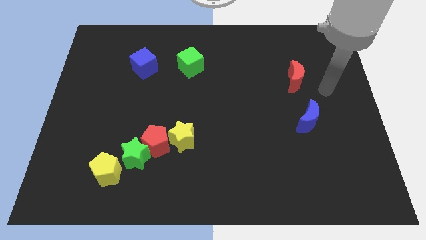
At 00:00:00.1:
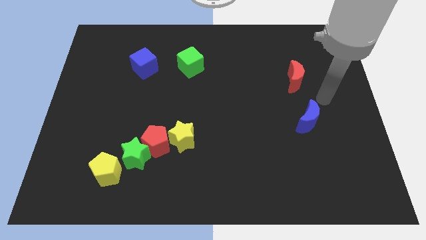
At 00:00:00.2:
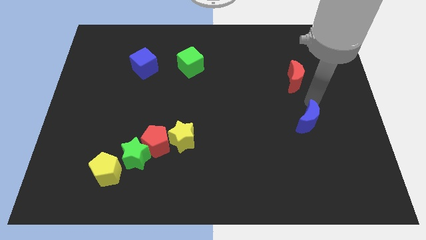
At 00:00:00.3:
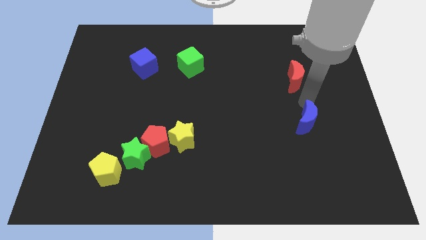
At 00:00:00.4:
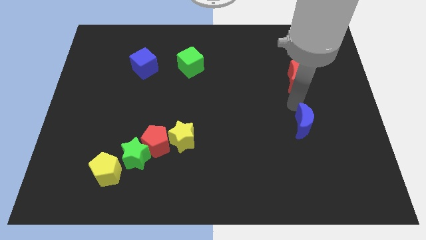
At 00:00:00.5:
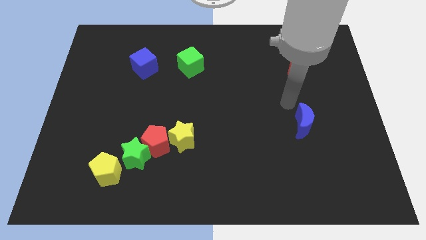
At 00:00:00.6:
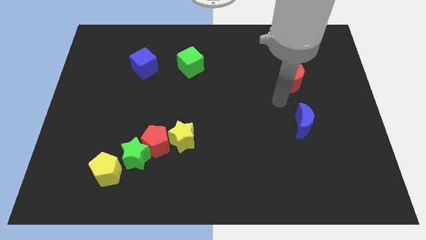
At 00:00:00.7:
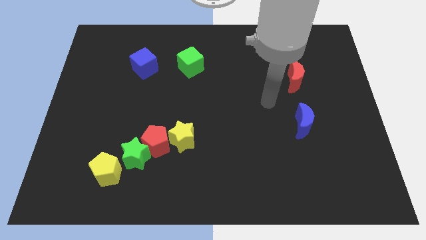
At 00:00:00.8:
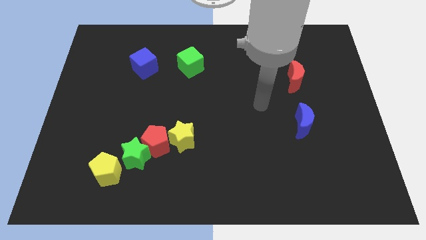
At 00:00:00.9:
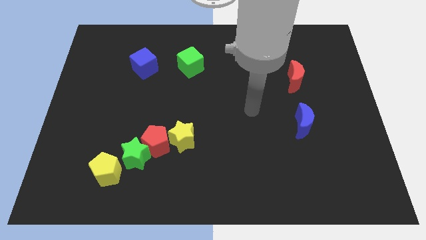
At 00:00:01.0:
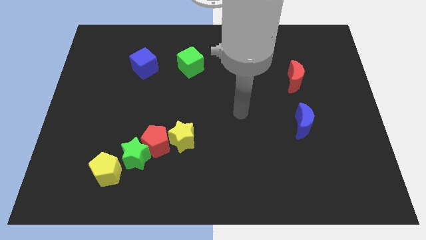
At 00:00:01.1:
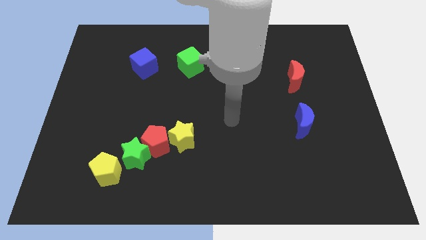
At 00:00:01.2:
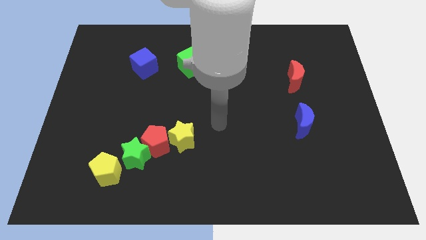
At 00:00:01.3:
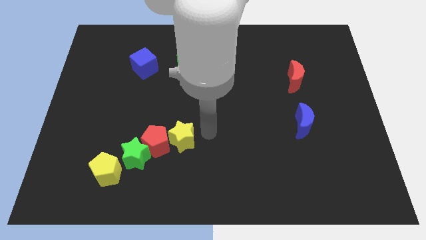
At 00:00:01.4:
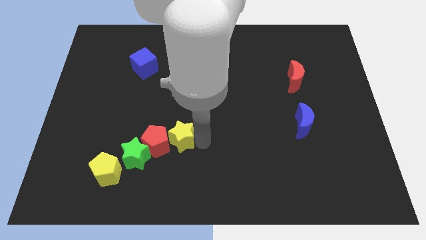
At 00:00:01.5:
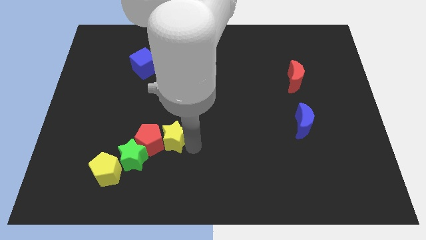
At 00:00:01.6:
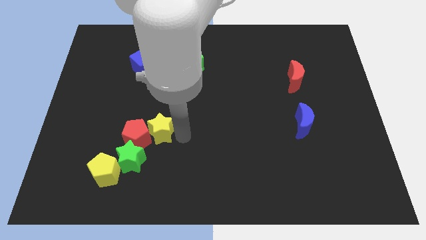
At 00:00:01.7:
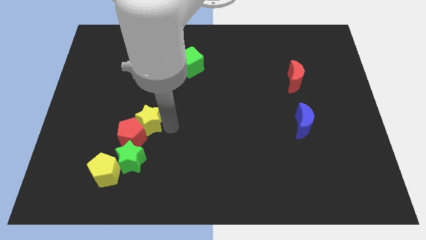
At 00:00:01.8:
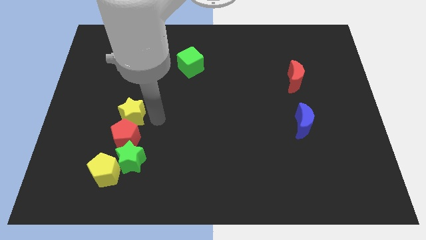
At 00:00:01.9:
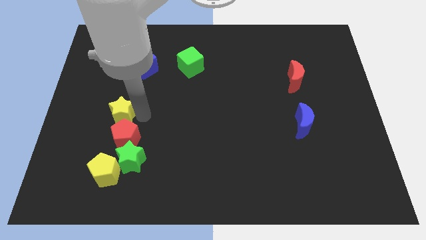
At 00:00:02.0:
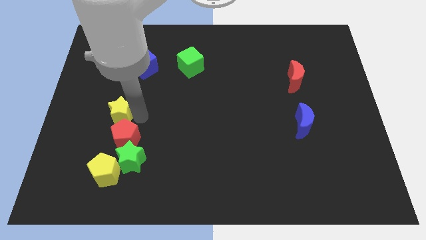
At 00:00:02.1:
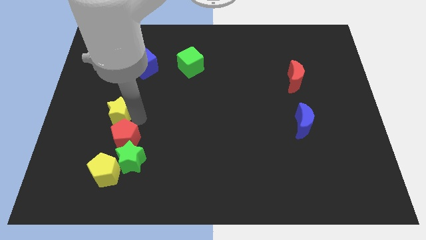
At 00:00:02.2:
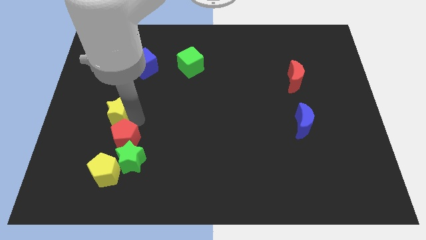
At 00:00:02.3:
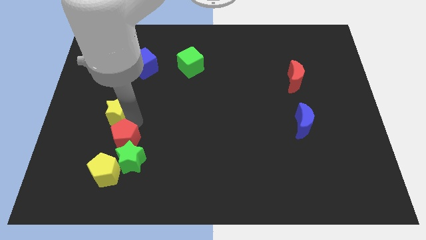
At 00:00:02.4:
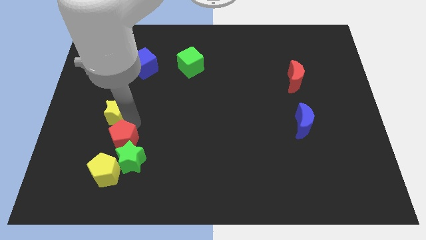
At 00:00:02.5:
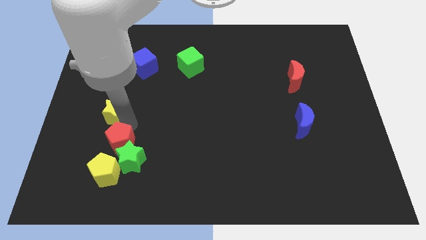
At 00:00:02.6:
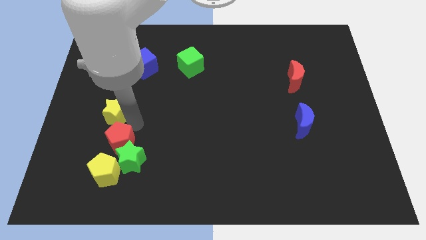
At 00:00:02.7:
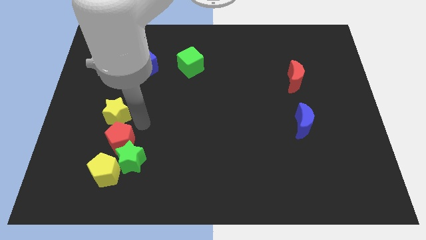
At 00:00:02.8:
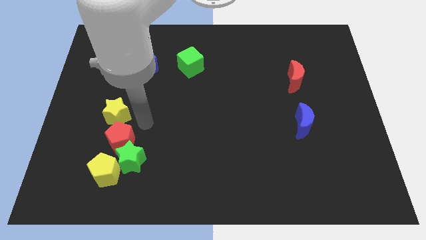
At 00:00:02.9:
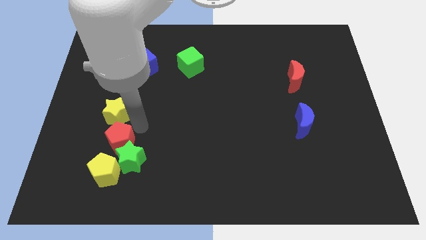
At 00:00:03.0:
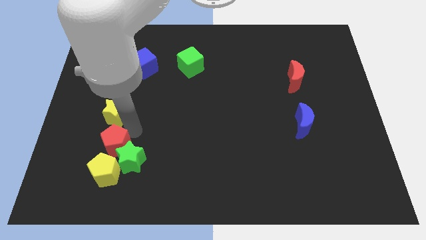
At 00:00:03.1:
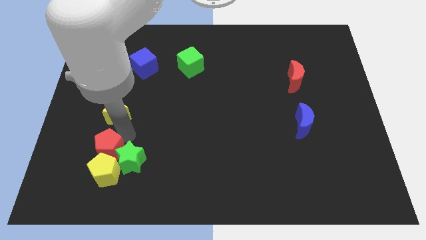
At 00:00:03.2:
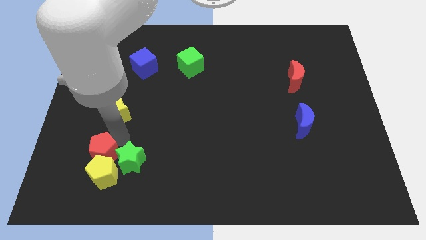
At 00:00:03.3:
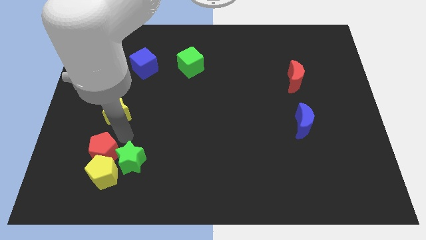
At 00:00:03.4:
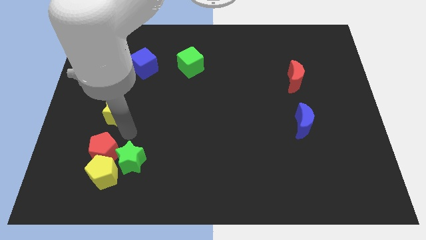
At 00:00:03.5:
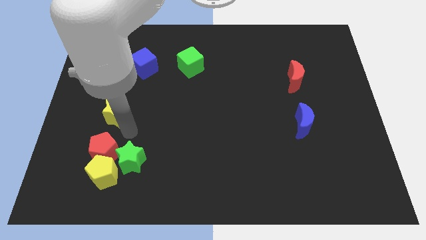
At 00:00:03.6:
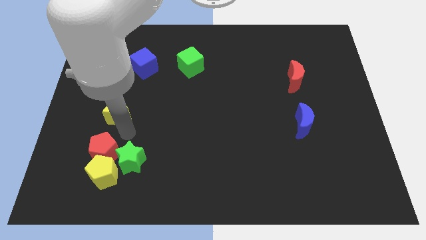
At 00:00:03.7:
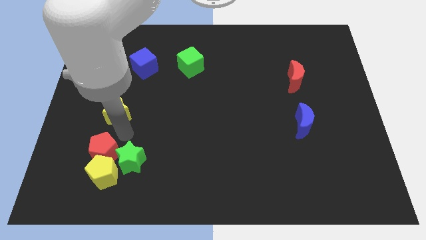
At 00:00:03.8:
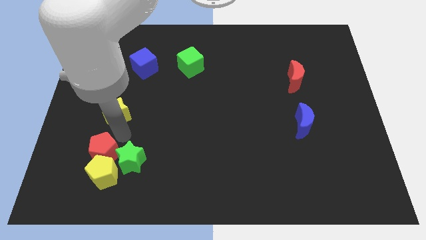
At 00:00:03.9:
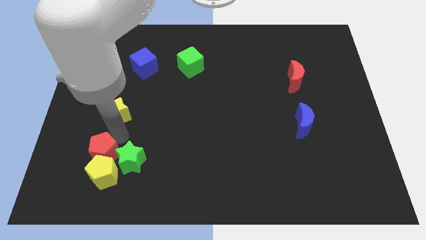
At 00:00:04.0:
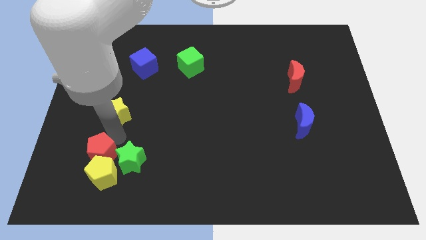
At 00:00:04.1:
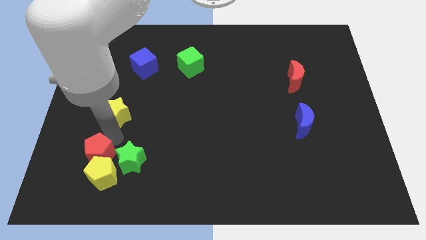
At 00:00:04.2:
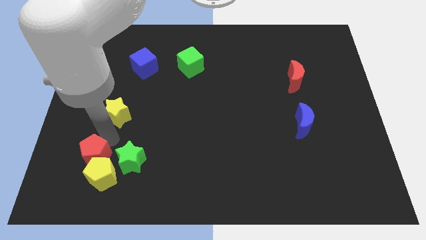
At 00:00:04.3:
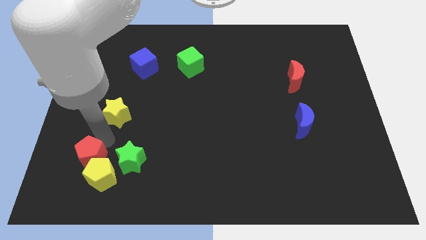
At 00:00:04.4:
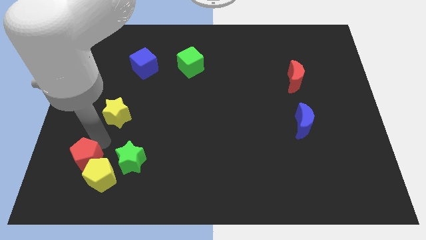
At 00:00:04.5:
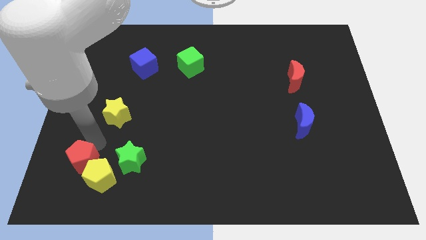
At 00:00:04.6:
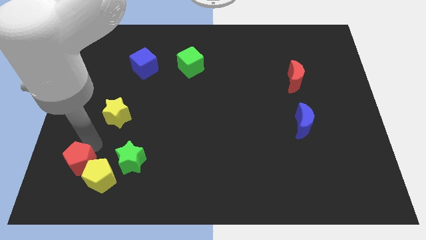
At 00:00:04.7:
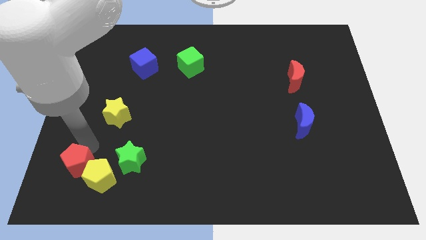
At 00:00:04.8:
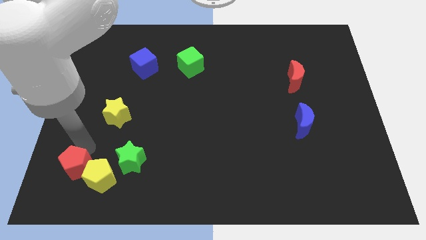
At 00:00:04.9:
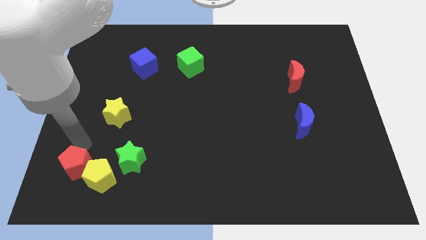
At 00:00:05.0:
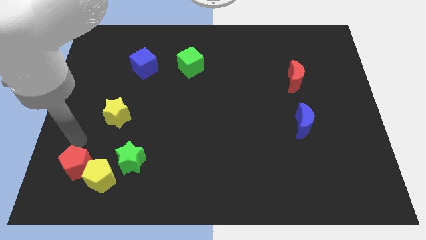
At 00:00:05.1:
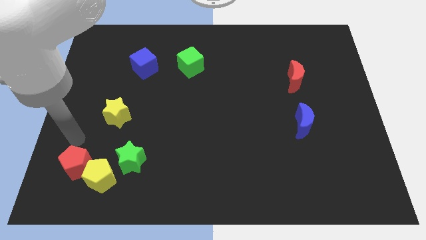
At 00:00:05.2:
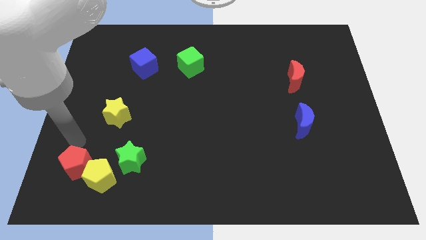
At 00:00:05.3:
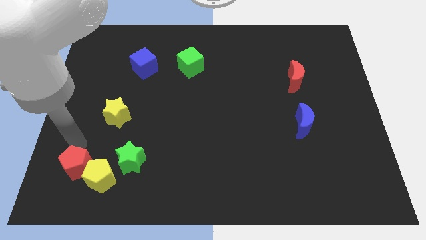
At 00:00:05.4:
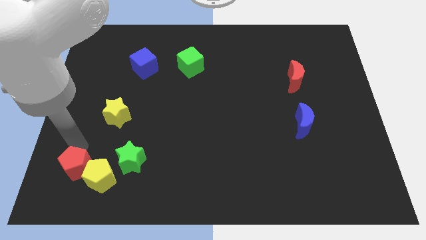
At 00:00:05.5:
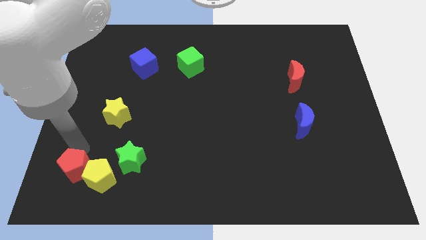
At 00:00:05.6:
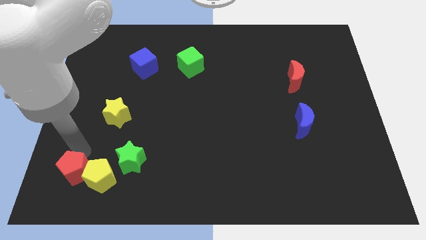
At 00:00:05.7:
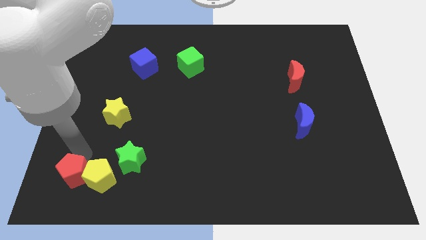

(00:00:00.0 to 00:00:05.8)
slide the red pentagon to the bottom left
